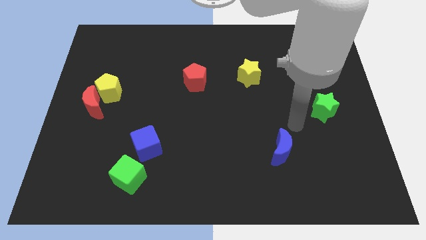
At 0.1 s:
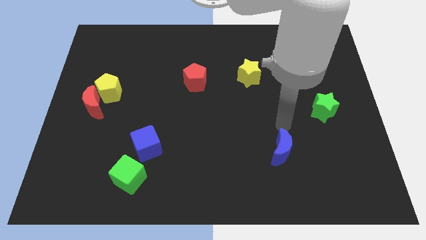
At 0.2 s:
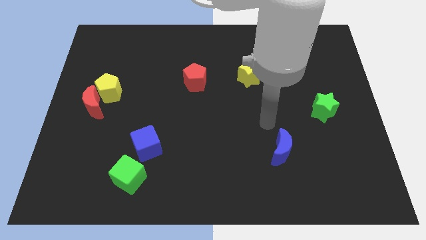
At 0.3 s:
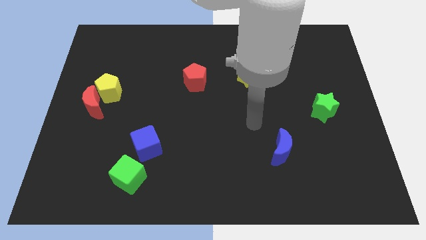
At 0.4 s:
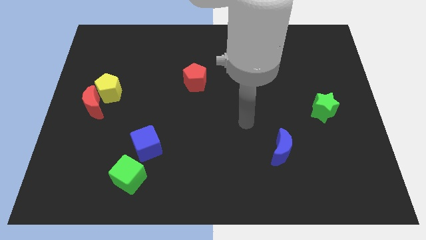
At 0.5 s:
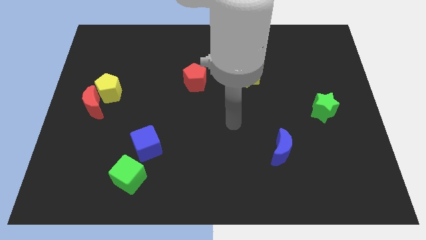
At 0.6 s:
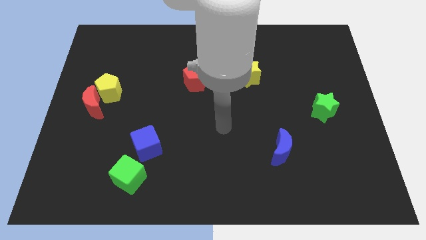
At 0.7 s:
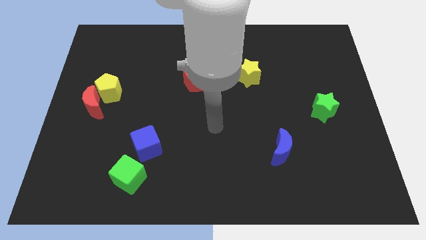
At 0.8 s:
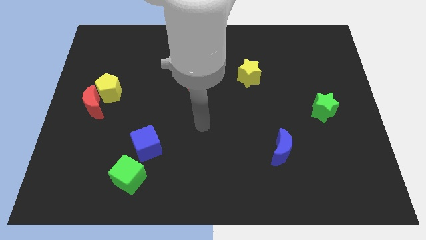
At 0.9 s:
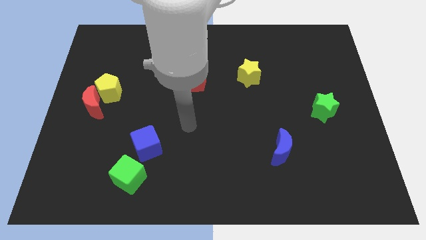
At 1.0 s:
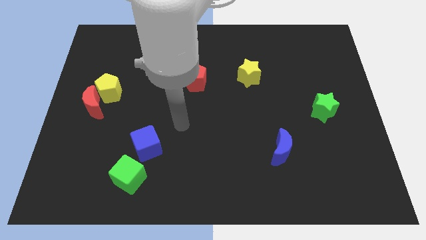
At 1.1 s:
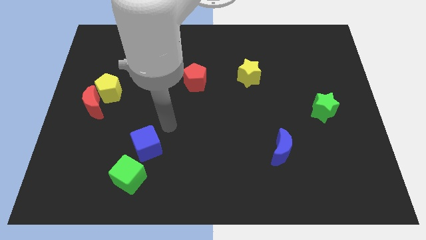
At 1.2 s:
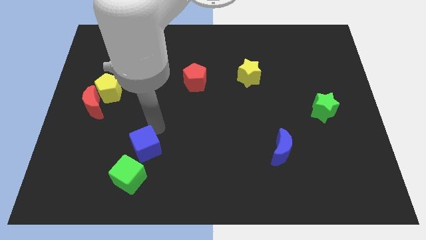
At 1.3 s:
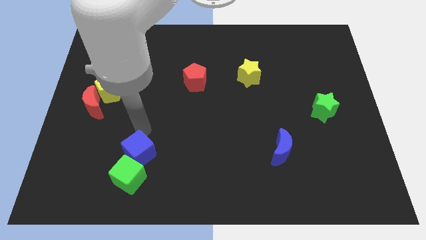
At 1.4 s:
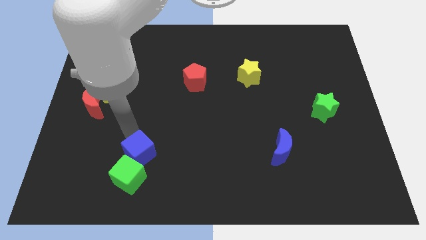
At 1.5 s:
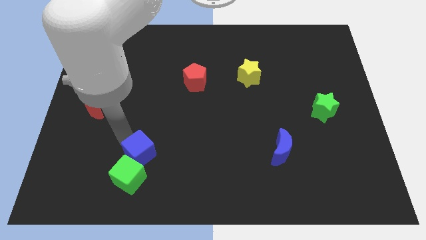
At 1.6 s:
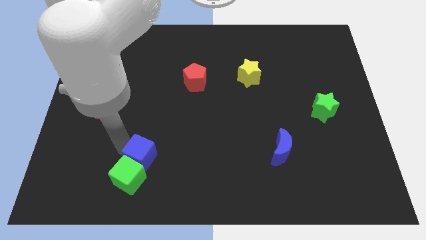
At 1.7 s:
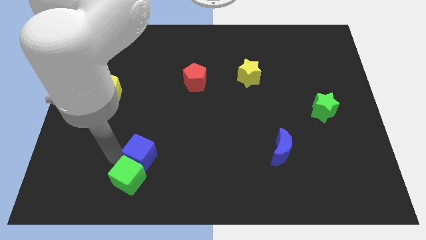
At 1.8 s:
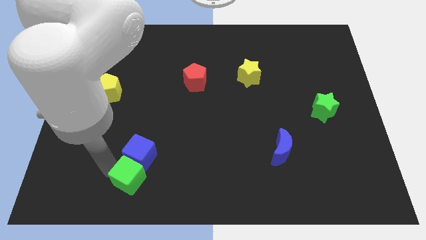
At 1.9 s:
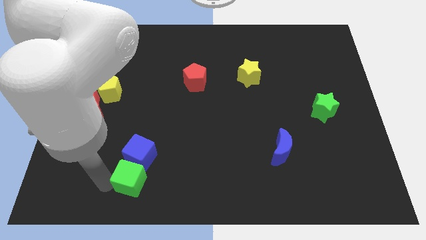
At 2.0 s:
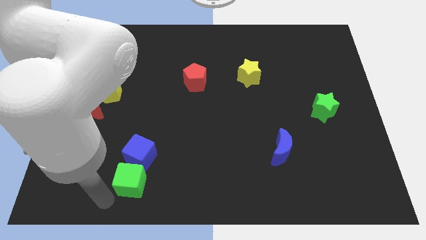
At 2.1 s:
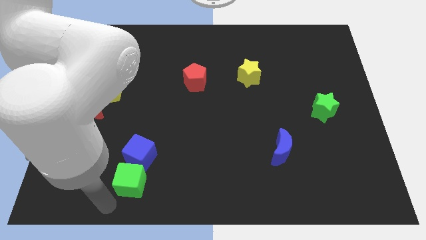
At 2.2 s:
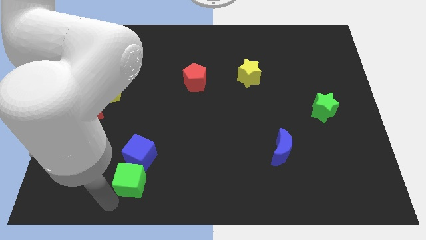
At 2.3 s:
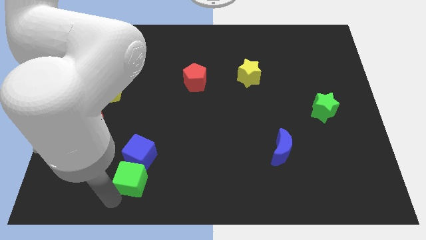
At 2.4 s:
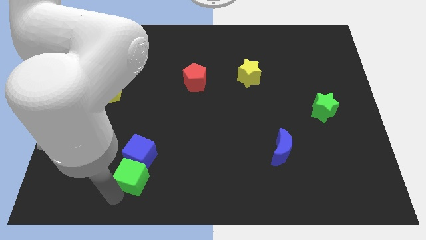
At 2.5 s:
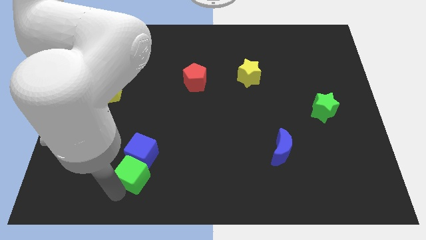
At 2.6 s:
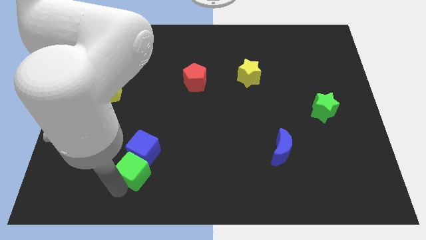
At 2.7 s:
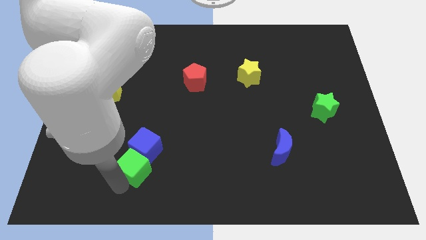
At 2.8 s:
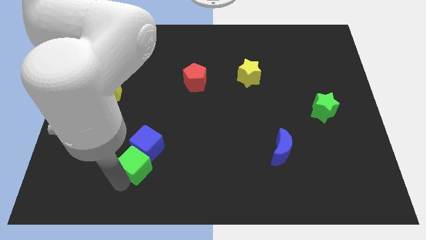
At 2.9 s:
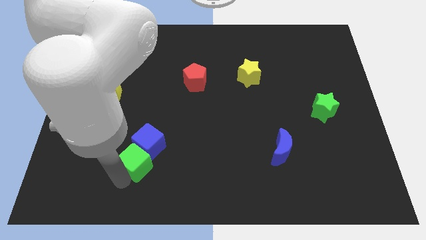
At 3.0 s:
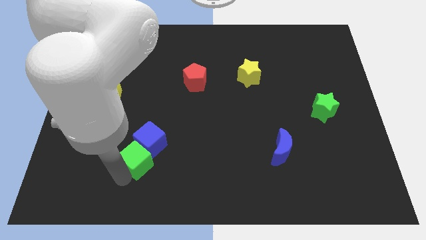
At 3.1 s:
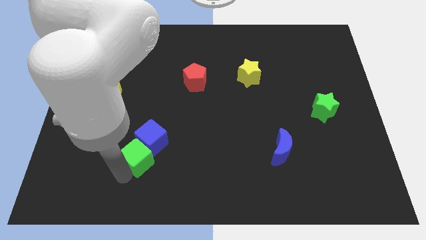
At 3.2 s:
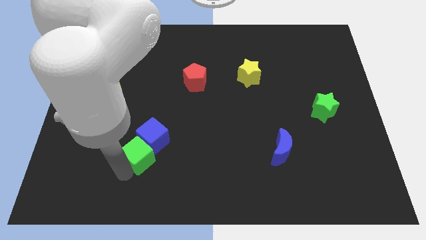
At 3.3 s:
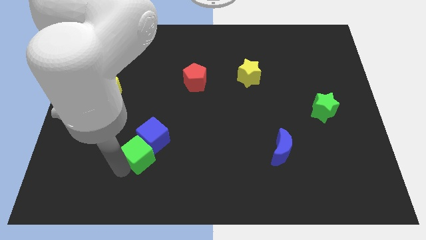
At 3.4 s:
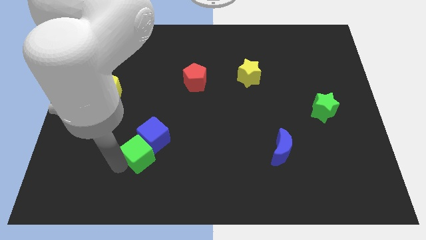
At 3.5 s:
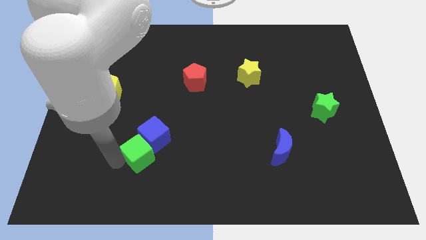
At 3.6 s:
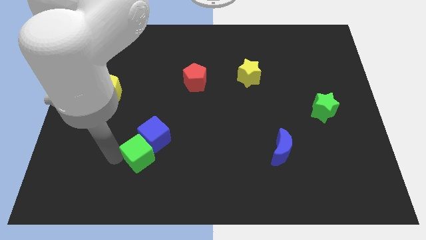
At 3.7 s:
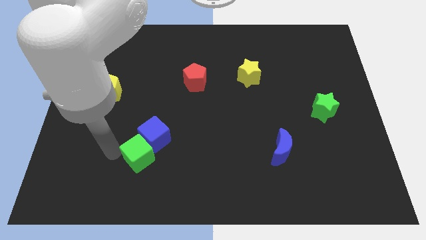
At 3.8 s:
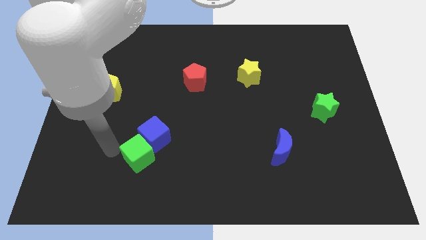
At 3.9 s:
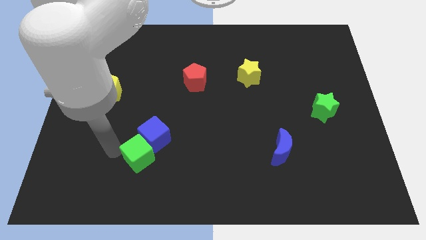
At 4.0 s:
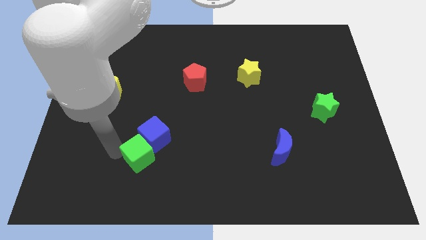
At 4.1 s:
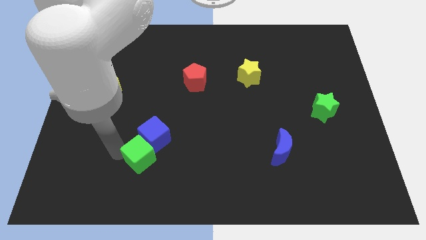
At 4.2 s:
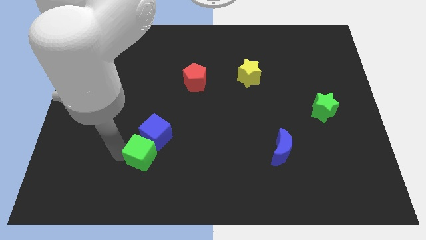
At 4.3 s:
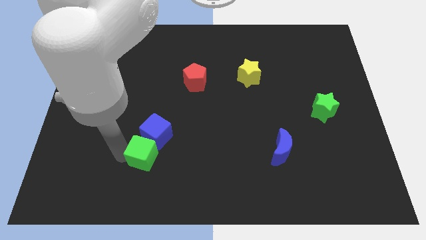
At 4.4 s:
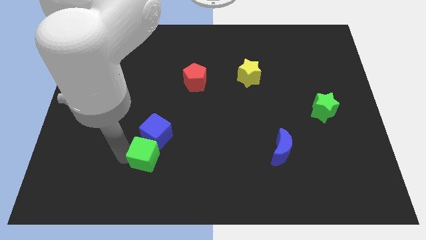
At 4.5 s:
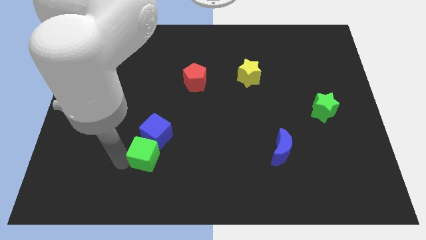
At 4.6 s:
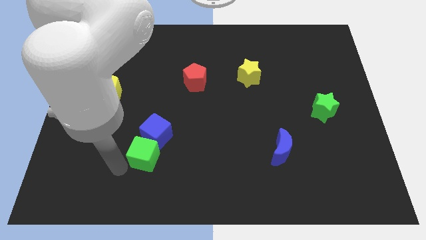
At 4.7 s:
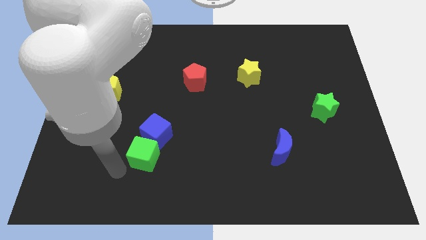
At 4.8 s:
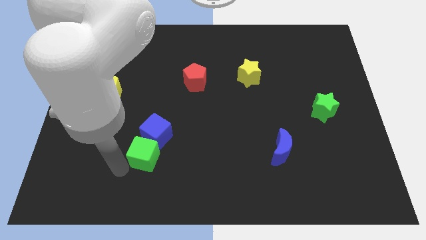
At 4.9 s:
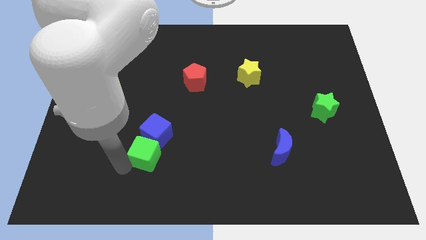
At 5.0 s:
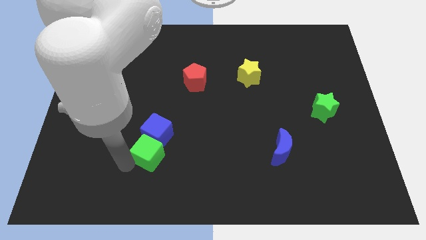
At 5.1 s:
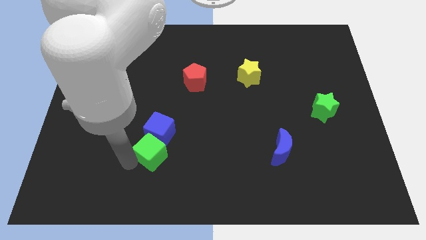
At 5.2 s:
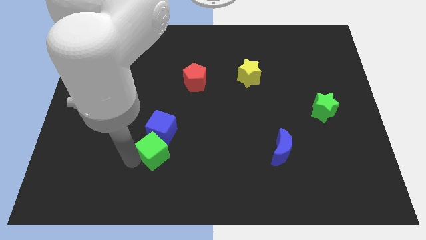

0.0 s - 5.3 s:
move the green cube a little bit up and right diagonally

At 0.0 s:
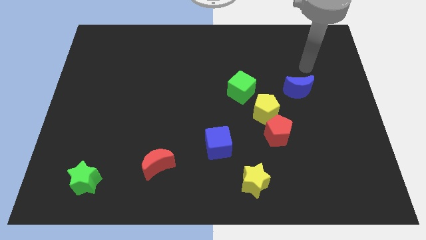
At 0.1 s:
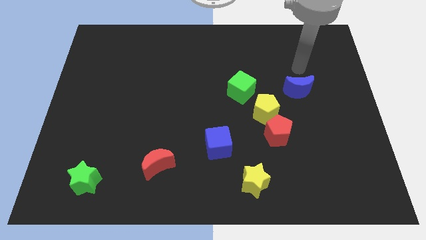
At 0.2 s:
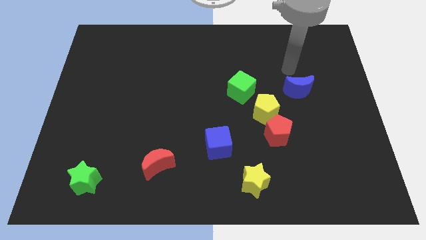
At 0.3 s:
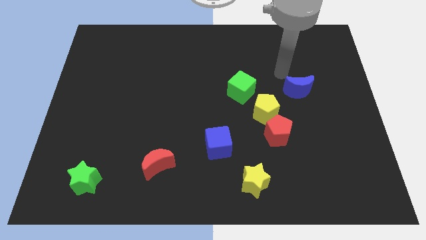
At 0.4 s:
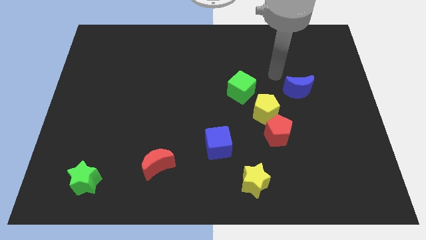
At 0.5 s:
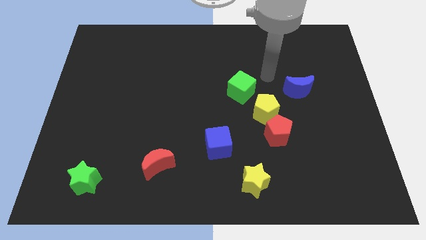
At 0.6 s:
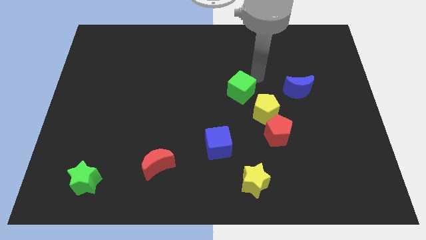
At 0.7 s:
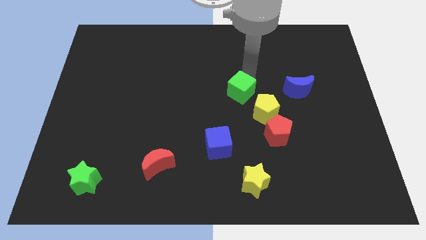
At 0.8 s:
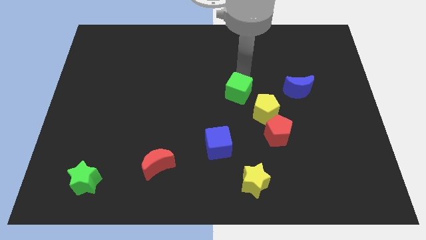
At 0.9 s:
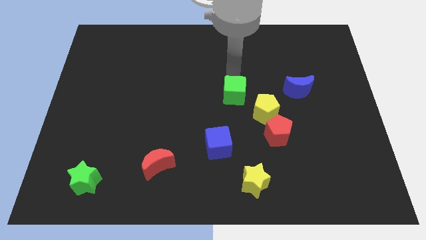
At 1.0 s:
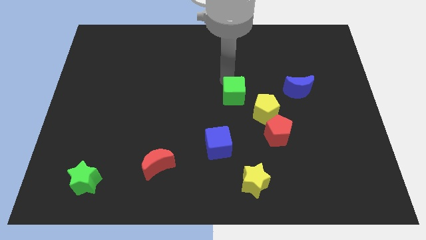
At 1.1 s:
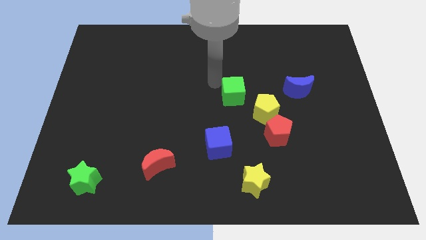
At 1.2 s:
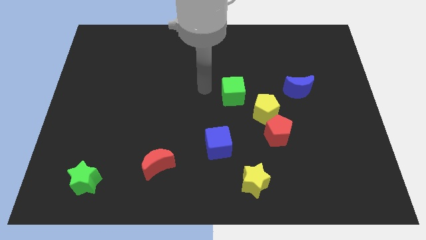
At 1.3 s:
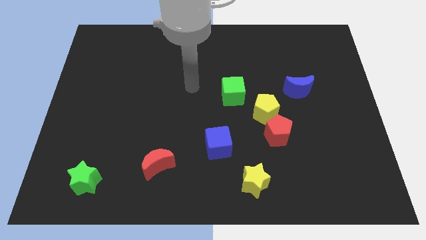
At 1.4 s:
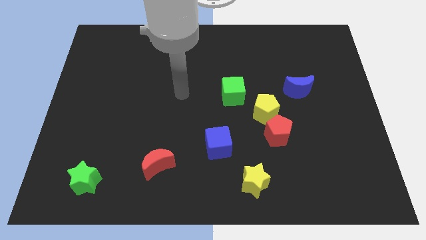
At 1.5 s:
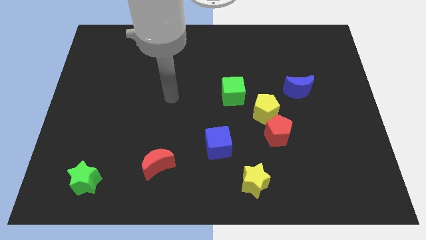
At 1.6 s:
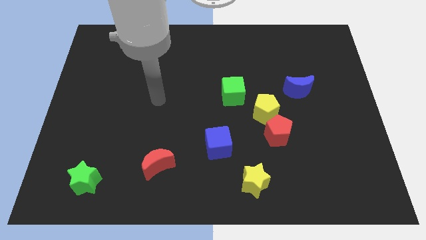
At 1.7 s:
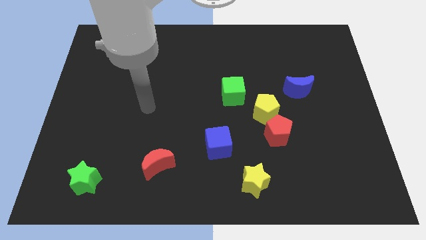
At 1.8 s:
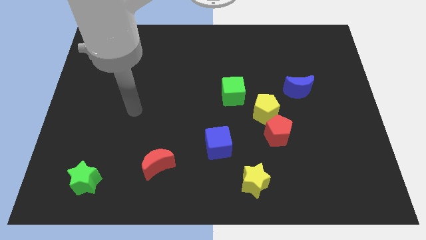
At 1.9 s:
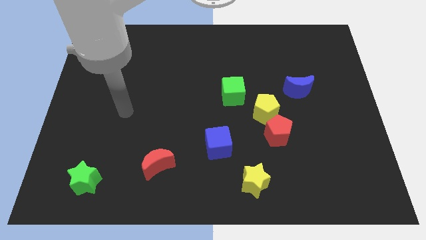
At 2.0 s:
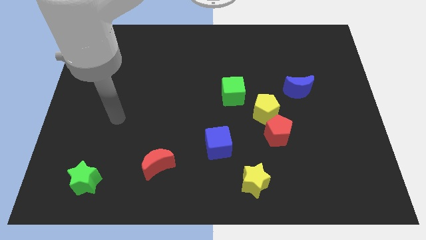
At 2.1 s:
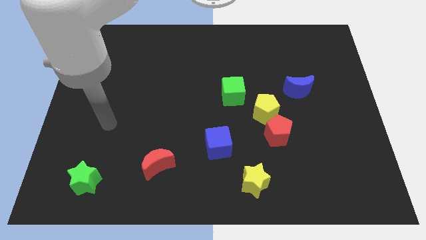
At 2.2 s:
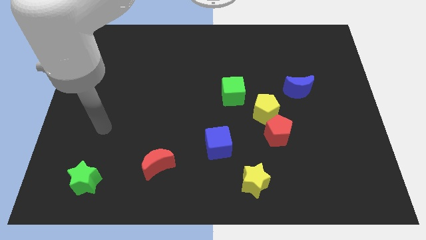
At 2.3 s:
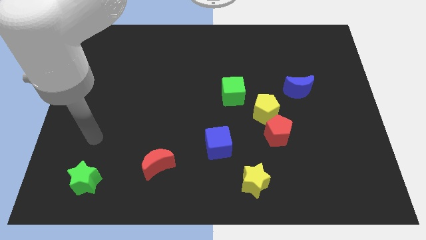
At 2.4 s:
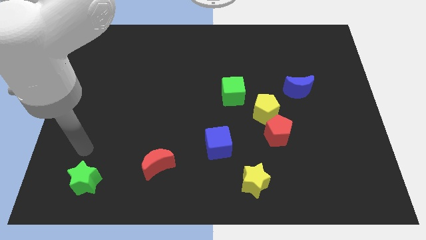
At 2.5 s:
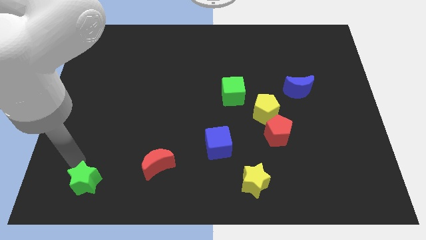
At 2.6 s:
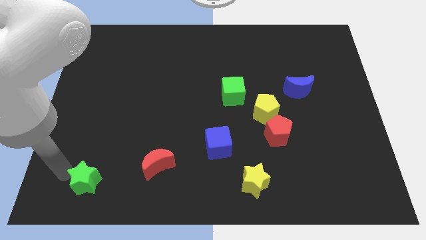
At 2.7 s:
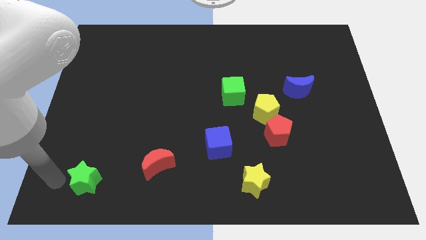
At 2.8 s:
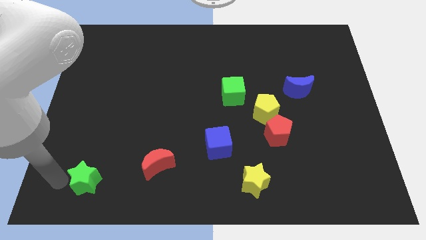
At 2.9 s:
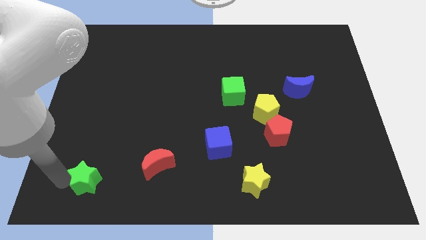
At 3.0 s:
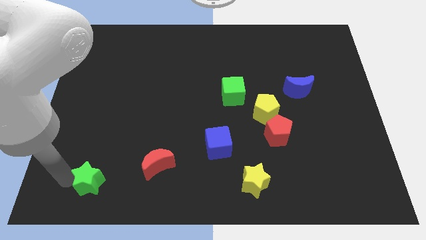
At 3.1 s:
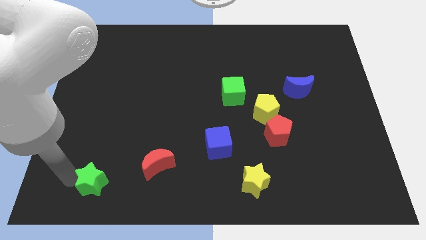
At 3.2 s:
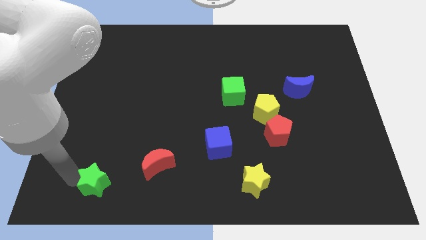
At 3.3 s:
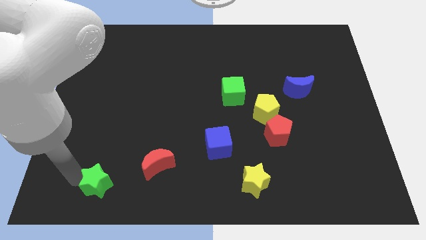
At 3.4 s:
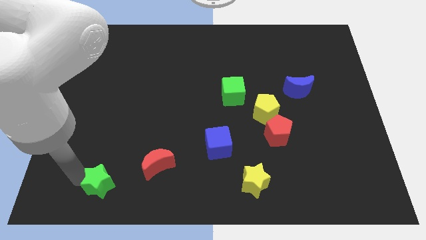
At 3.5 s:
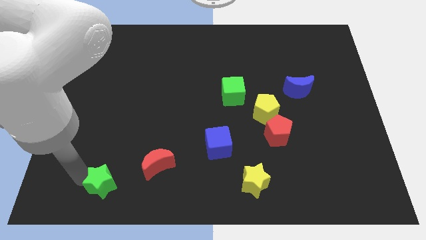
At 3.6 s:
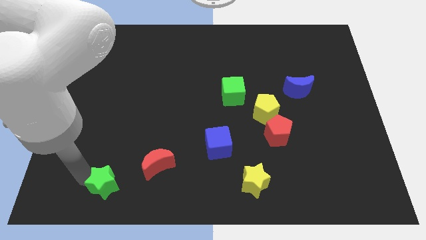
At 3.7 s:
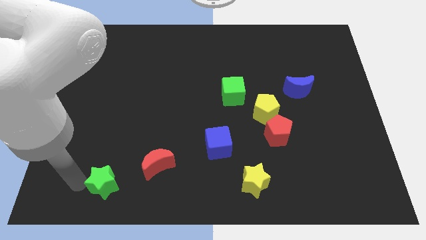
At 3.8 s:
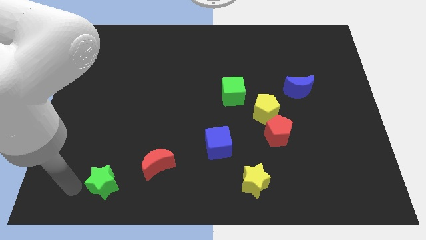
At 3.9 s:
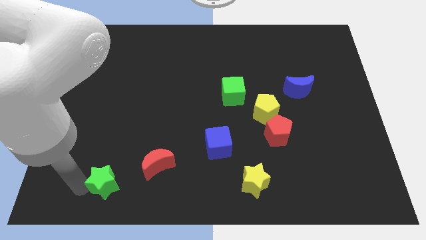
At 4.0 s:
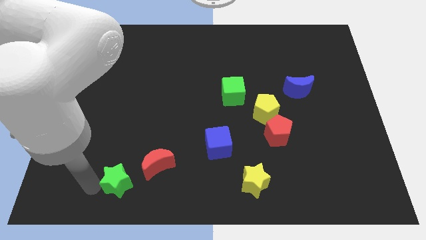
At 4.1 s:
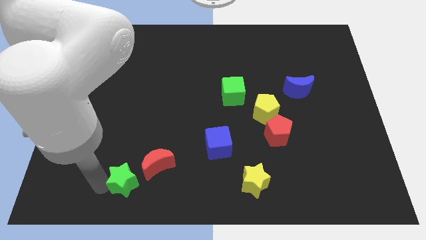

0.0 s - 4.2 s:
slightly push the green star to the right
